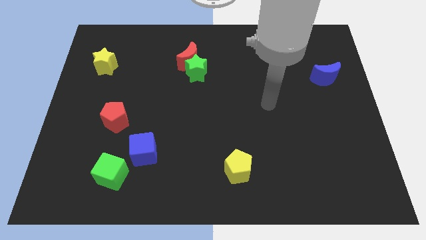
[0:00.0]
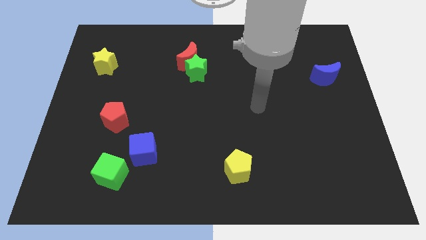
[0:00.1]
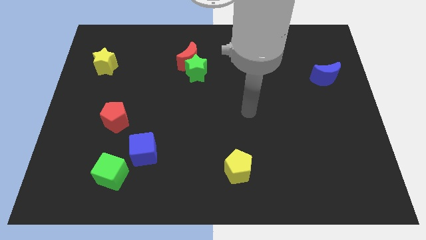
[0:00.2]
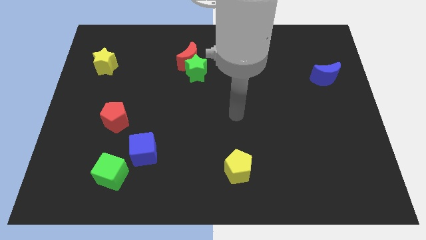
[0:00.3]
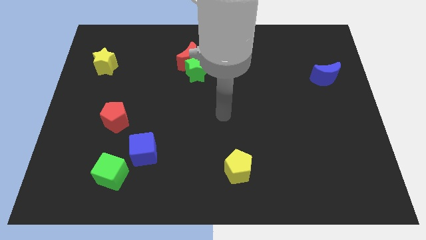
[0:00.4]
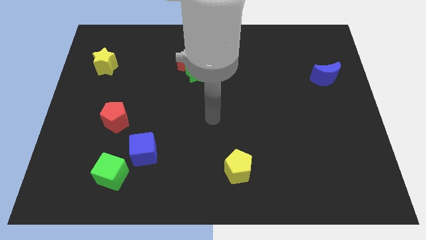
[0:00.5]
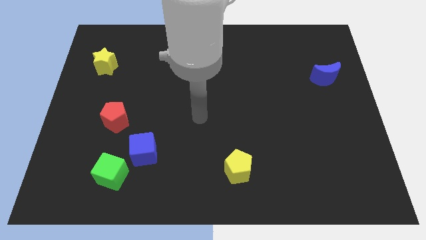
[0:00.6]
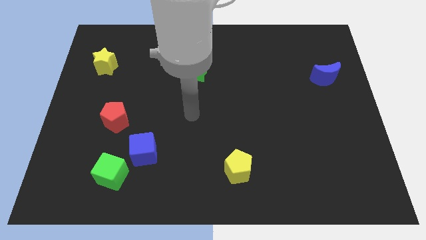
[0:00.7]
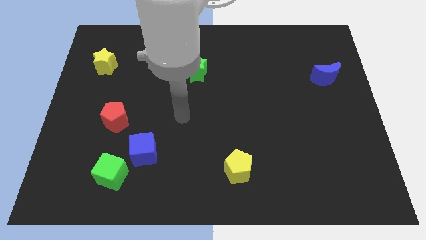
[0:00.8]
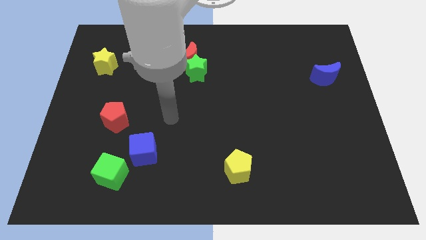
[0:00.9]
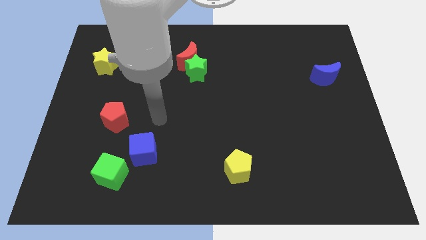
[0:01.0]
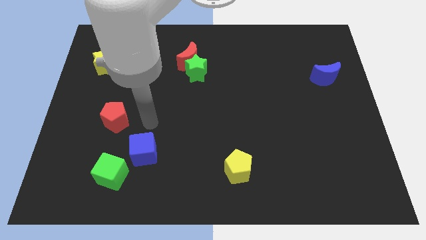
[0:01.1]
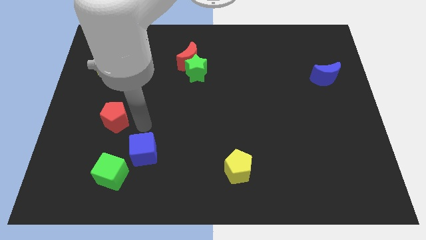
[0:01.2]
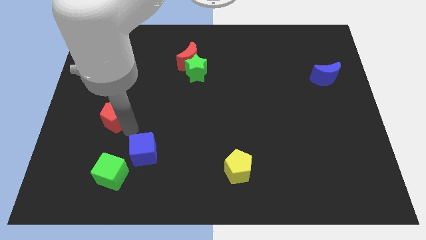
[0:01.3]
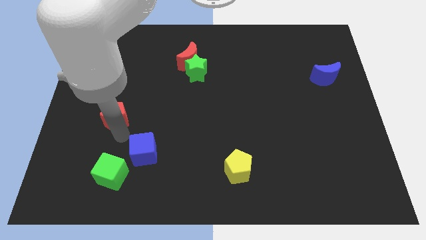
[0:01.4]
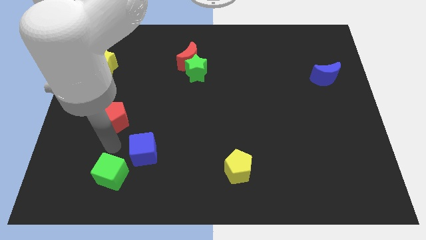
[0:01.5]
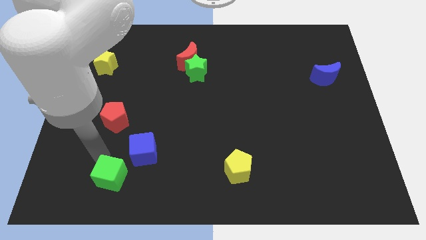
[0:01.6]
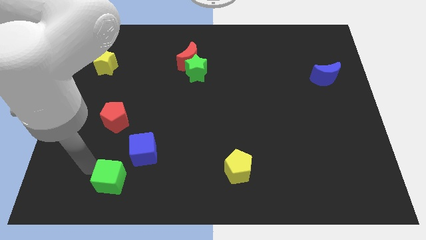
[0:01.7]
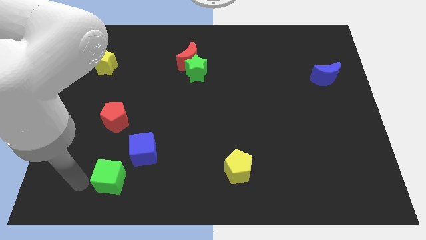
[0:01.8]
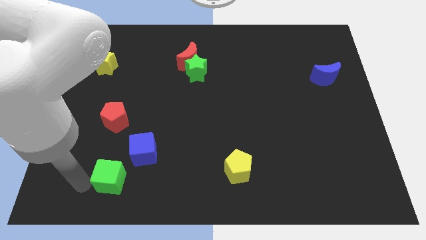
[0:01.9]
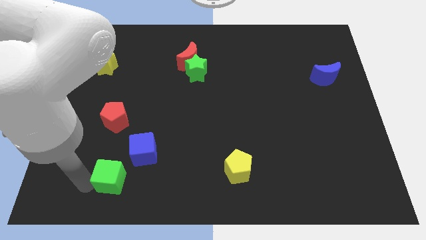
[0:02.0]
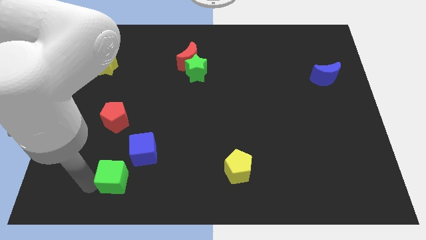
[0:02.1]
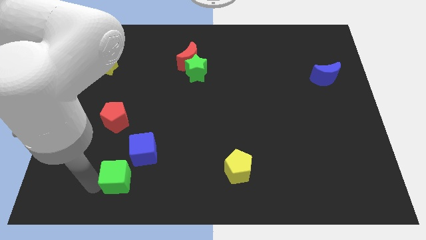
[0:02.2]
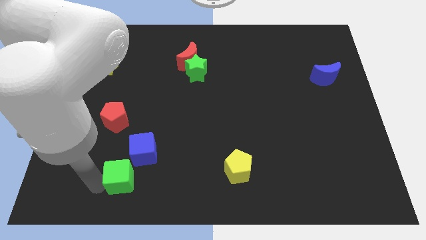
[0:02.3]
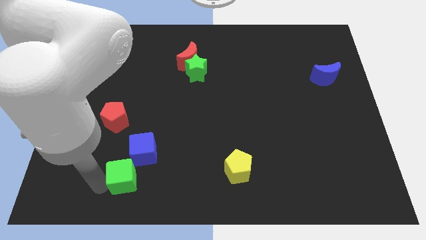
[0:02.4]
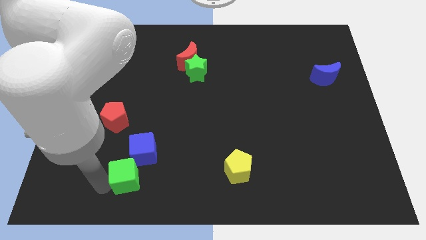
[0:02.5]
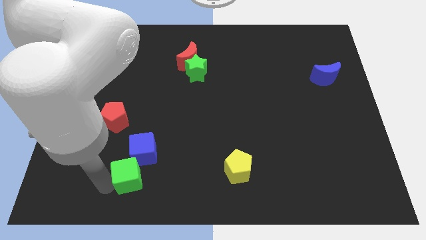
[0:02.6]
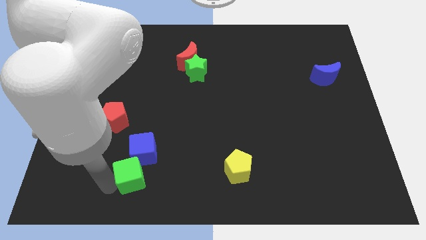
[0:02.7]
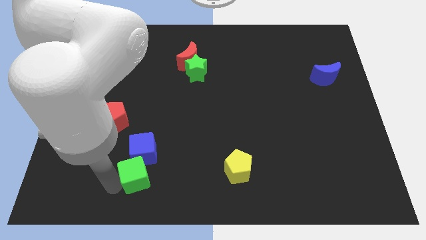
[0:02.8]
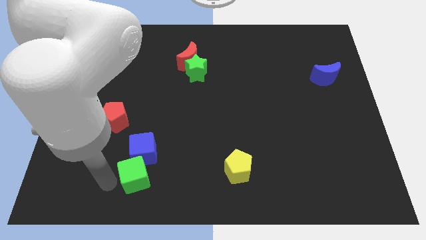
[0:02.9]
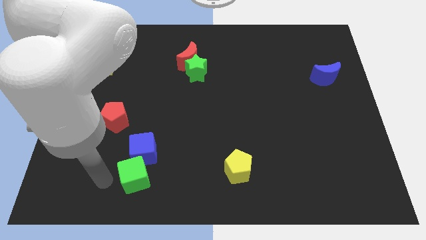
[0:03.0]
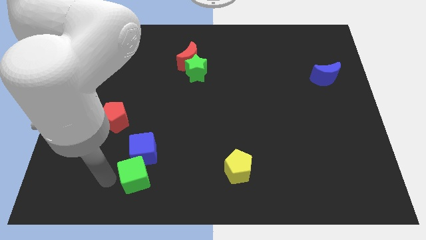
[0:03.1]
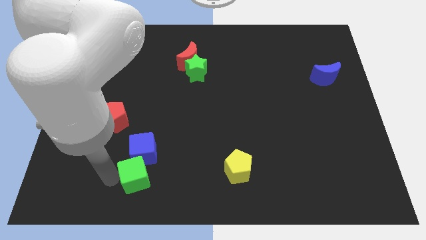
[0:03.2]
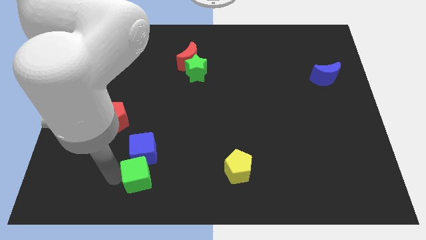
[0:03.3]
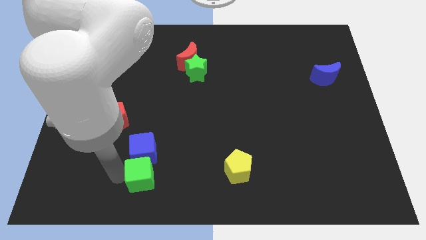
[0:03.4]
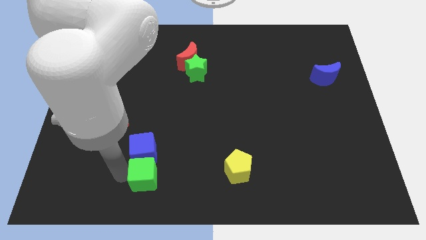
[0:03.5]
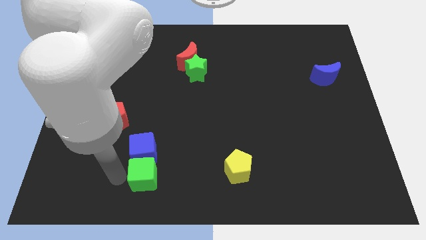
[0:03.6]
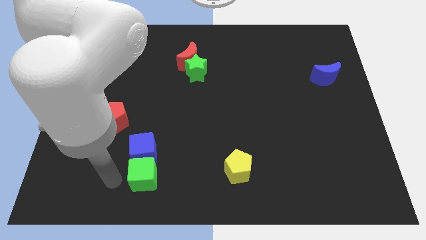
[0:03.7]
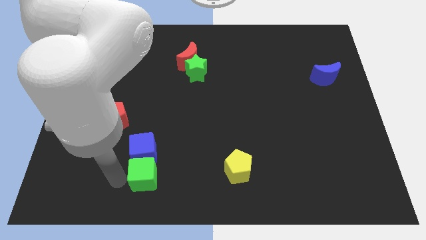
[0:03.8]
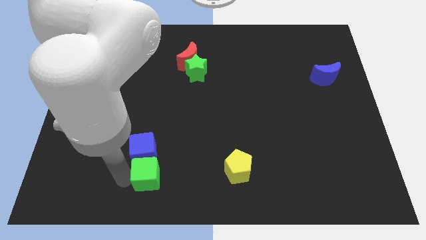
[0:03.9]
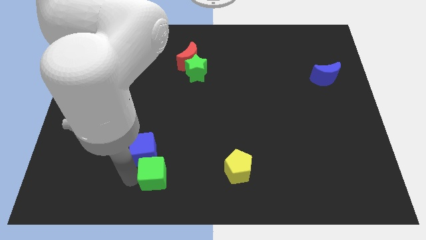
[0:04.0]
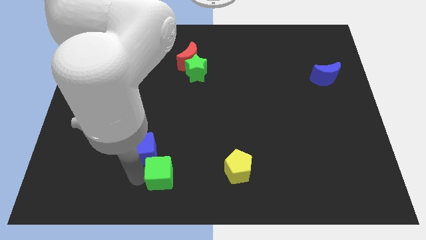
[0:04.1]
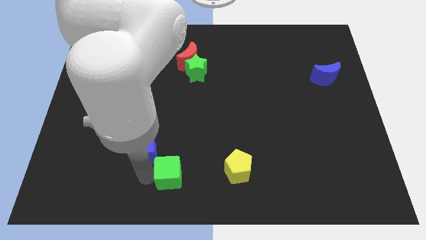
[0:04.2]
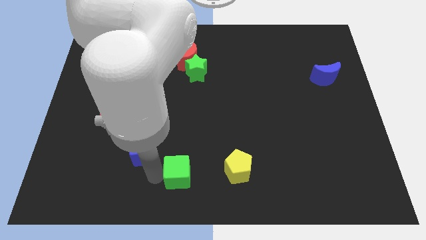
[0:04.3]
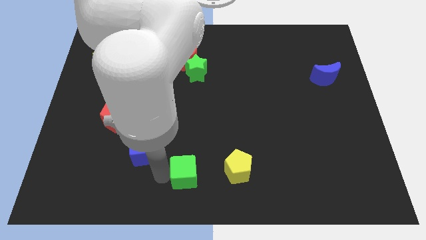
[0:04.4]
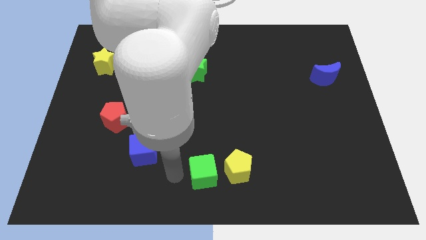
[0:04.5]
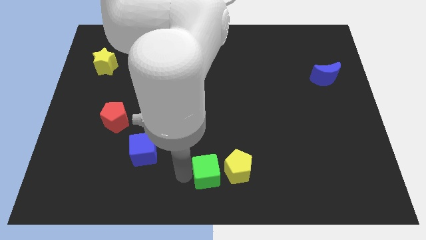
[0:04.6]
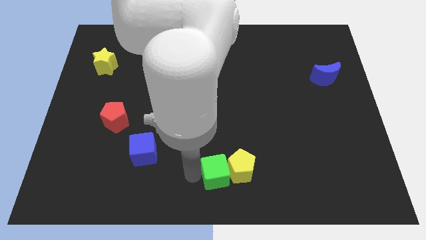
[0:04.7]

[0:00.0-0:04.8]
put the green cube close to the yellow pentagon

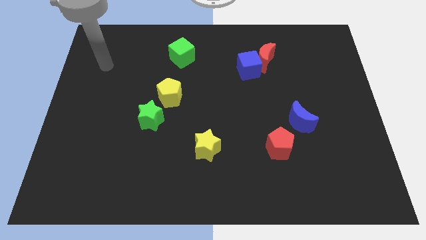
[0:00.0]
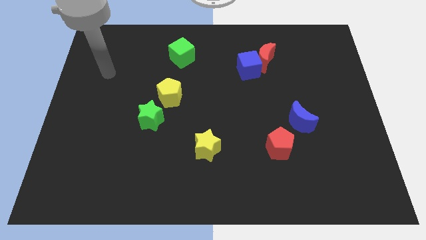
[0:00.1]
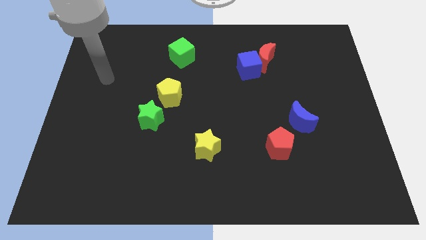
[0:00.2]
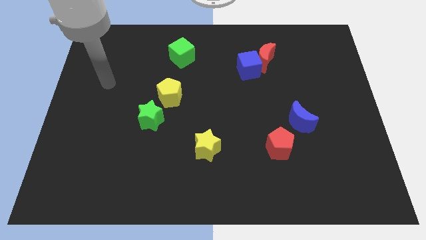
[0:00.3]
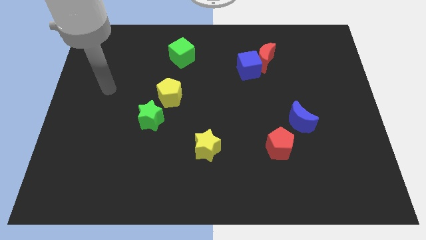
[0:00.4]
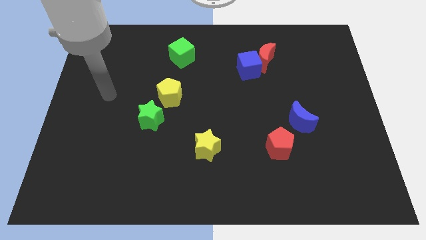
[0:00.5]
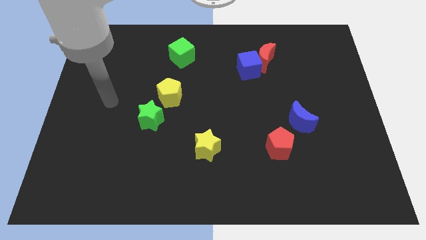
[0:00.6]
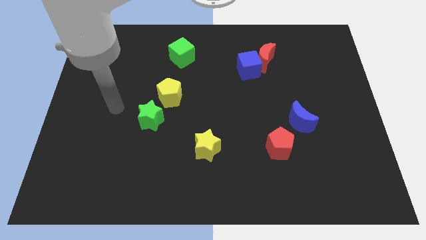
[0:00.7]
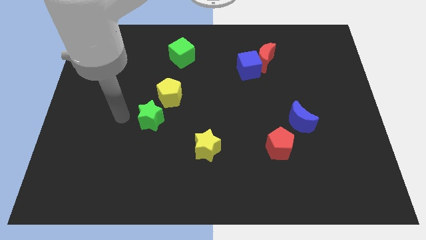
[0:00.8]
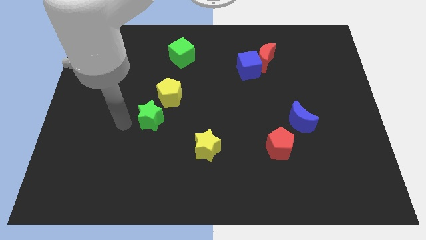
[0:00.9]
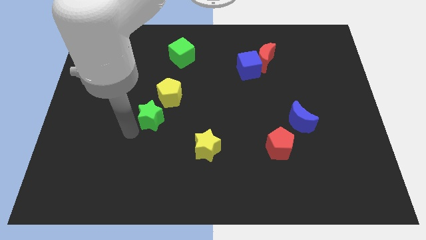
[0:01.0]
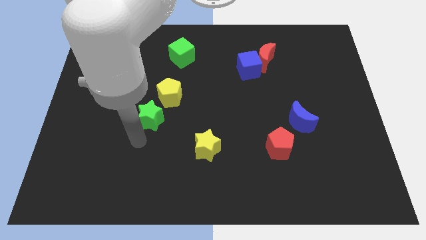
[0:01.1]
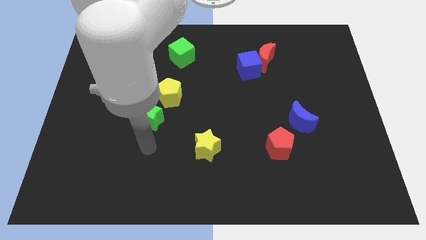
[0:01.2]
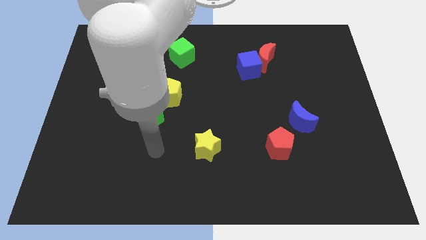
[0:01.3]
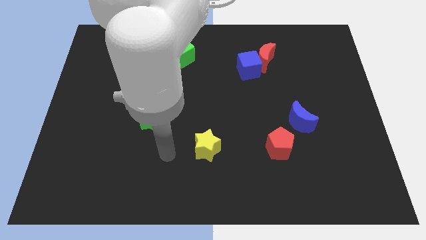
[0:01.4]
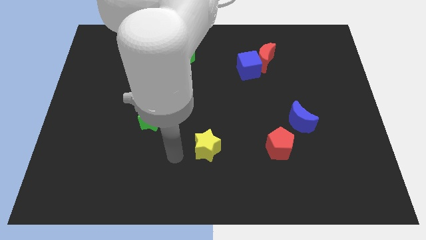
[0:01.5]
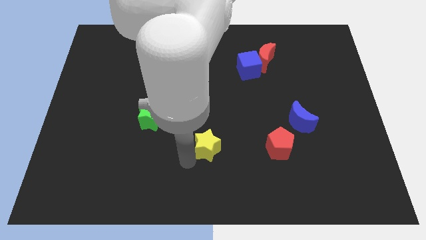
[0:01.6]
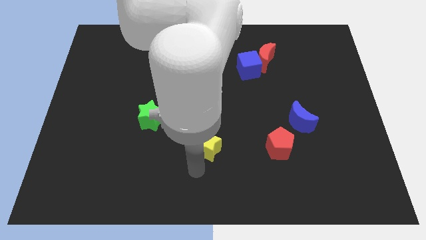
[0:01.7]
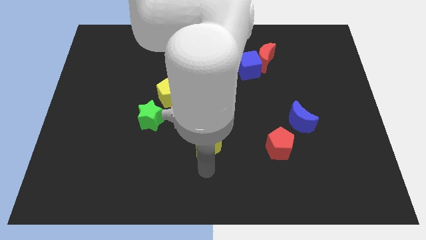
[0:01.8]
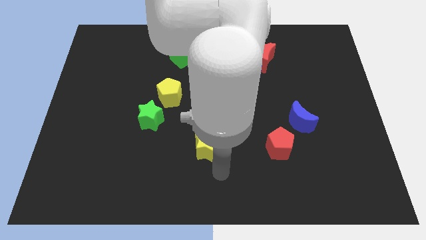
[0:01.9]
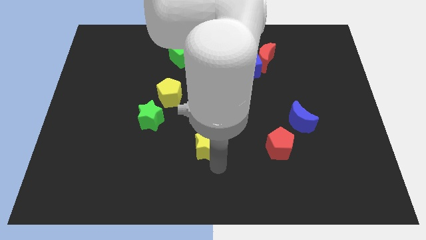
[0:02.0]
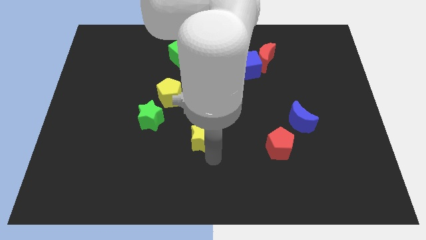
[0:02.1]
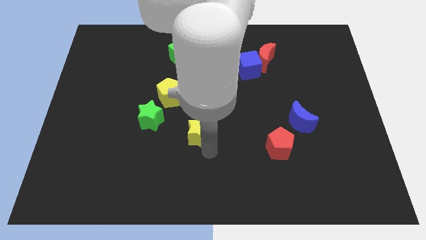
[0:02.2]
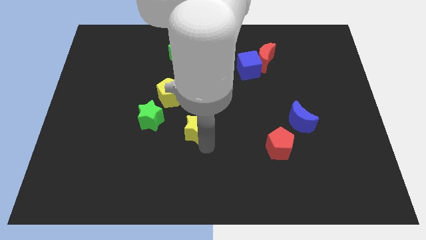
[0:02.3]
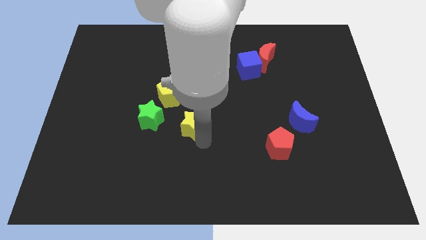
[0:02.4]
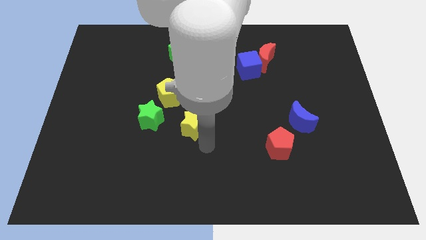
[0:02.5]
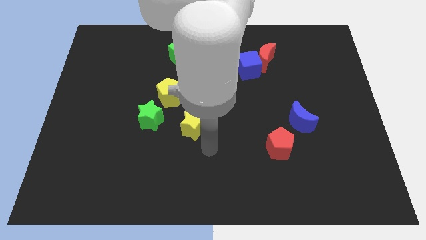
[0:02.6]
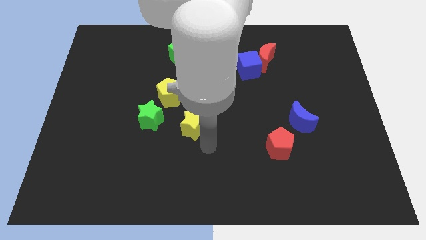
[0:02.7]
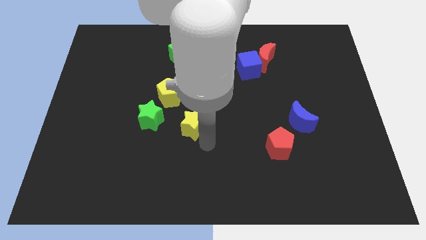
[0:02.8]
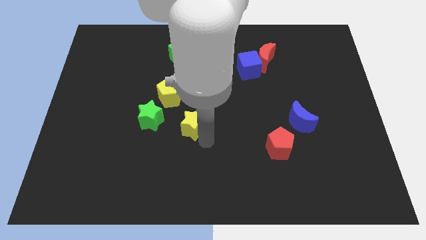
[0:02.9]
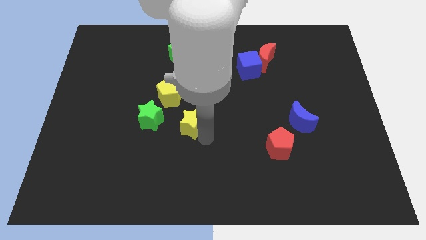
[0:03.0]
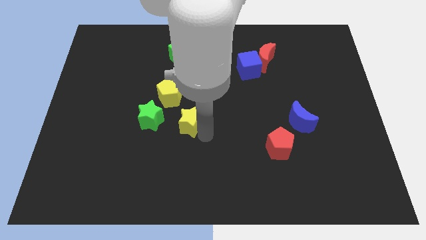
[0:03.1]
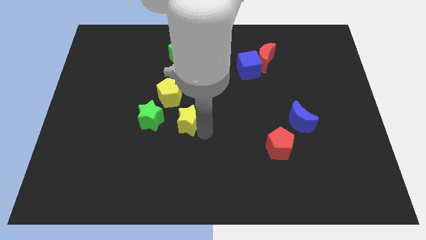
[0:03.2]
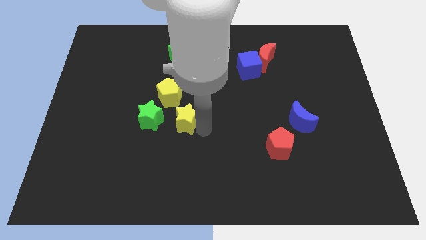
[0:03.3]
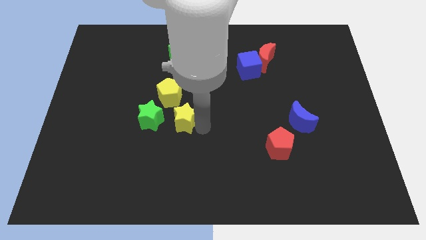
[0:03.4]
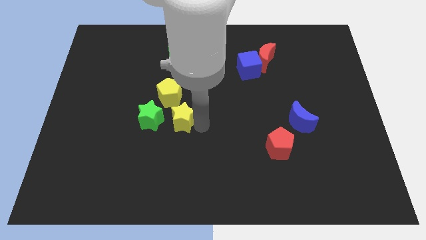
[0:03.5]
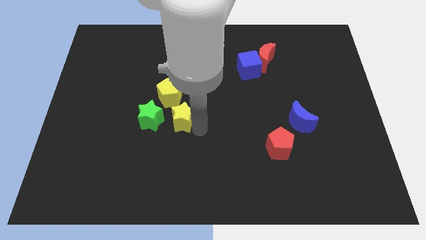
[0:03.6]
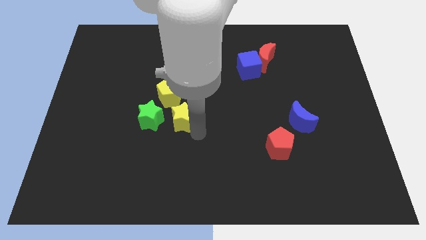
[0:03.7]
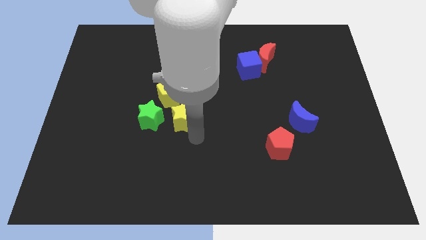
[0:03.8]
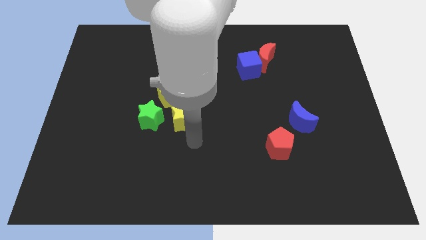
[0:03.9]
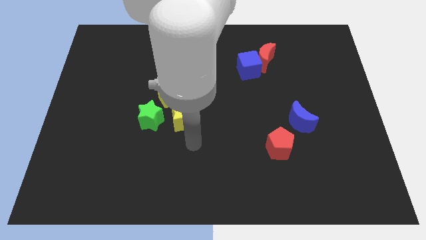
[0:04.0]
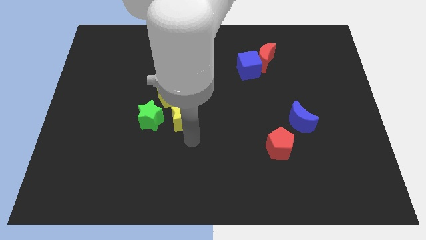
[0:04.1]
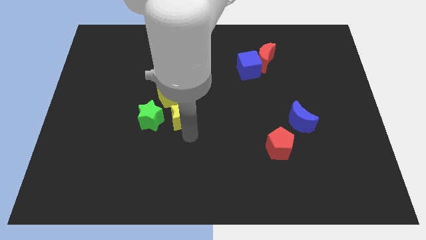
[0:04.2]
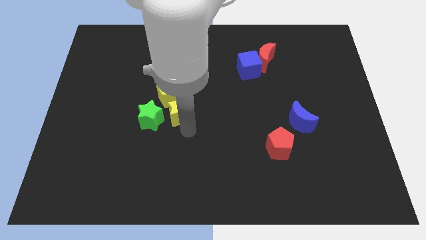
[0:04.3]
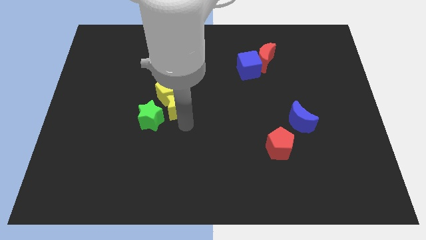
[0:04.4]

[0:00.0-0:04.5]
put the yellow star close to the yellow pentagon
